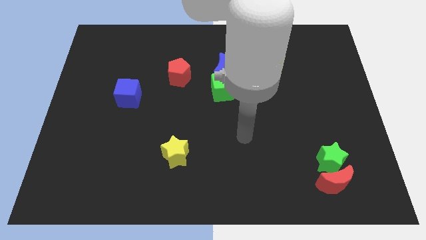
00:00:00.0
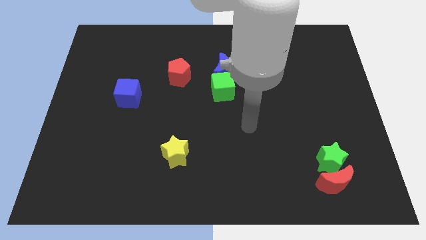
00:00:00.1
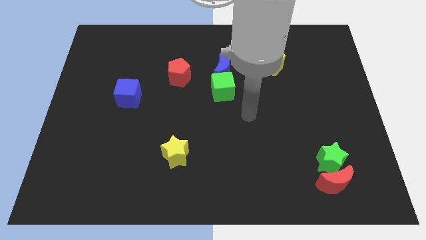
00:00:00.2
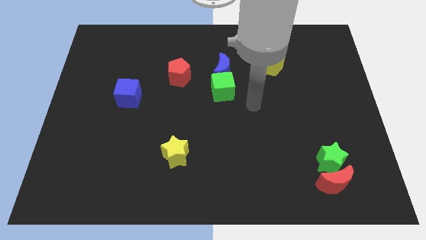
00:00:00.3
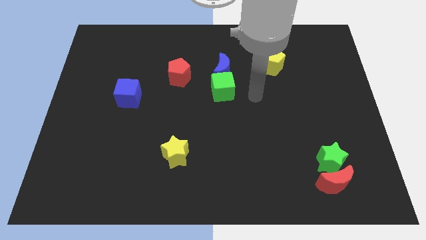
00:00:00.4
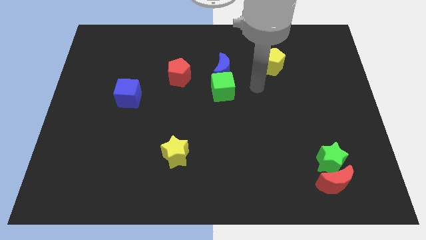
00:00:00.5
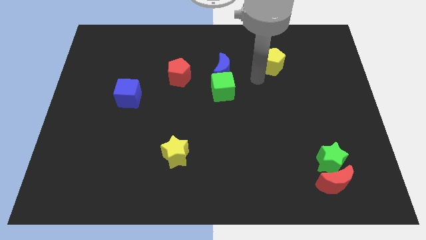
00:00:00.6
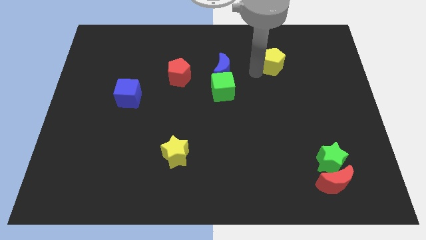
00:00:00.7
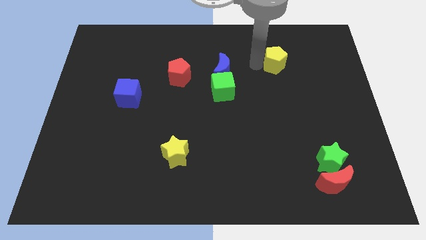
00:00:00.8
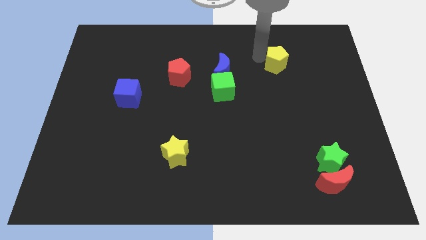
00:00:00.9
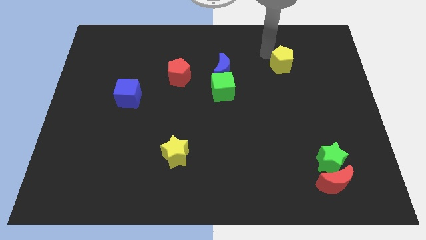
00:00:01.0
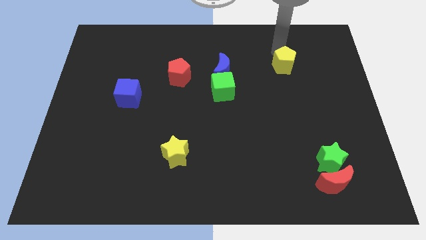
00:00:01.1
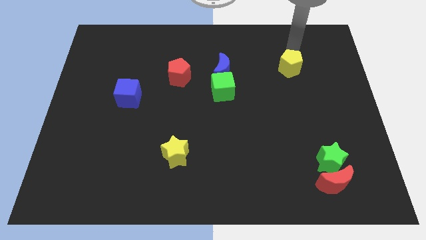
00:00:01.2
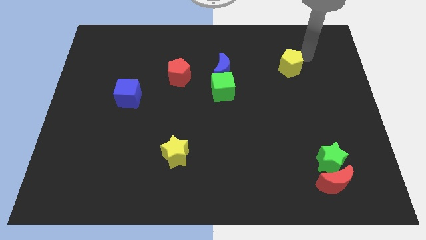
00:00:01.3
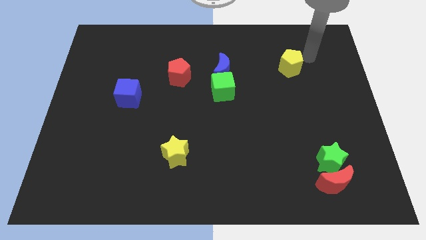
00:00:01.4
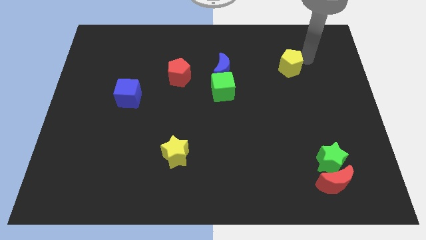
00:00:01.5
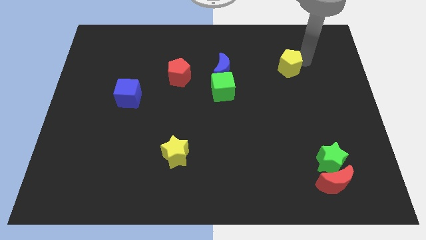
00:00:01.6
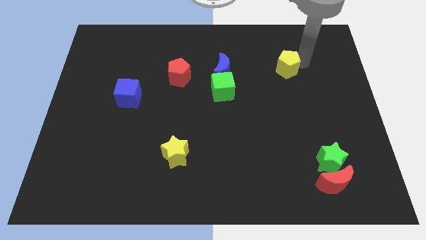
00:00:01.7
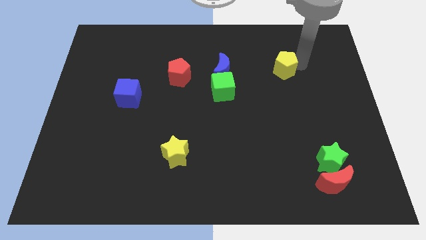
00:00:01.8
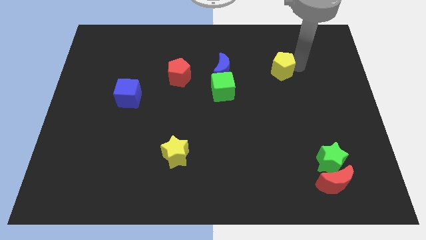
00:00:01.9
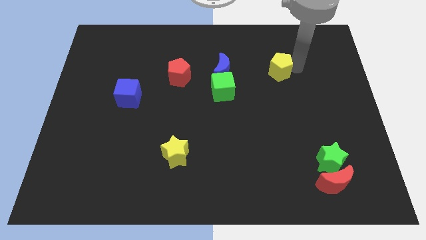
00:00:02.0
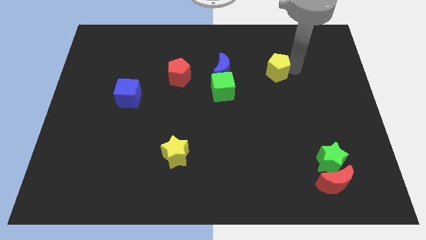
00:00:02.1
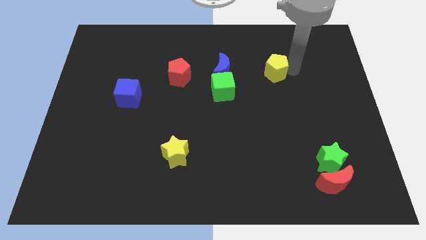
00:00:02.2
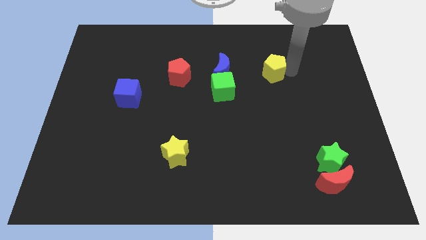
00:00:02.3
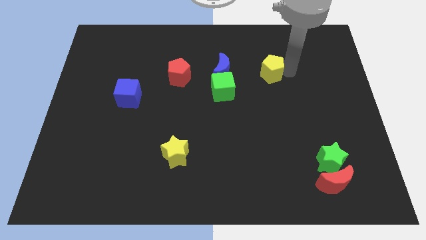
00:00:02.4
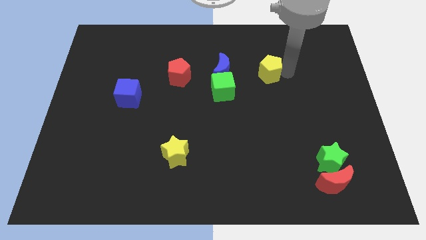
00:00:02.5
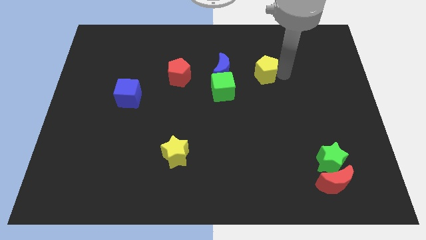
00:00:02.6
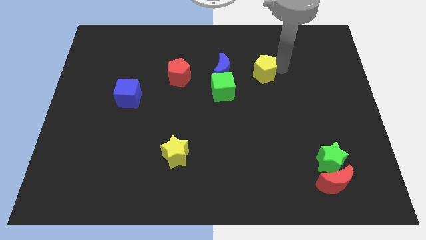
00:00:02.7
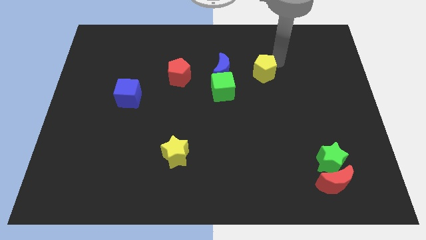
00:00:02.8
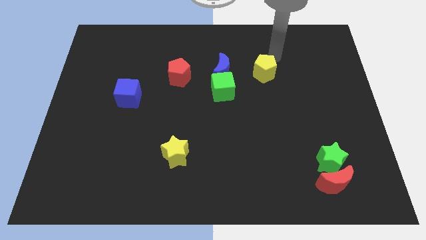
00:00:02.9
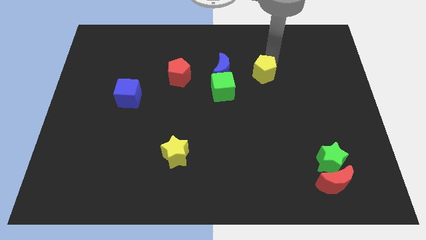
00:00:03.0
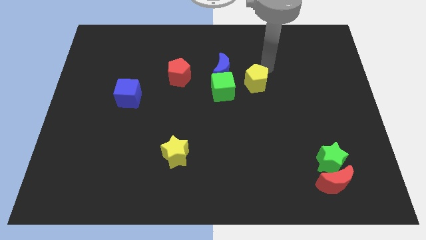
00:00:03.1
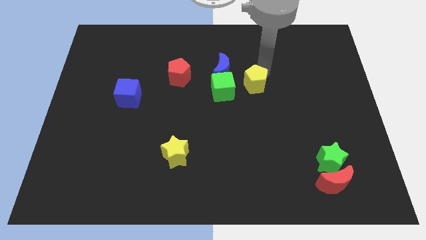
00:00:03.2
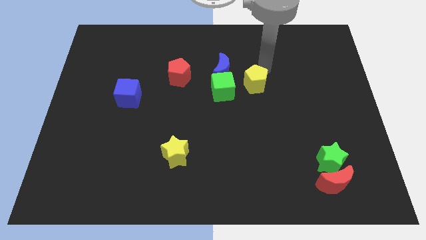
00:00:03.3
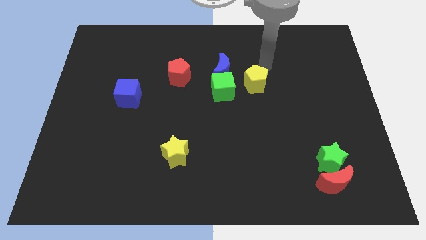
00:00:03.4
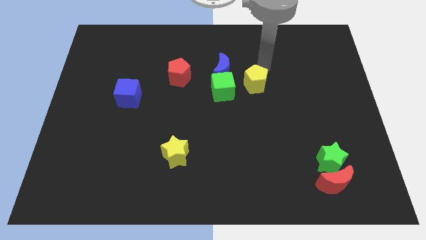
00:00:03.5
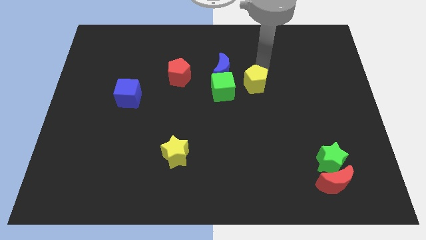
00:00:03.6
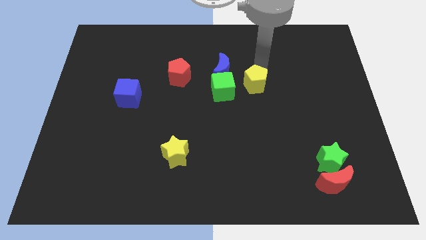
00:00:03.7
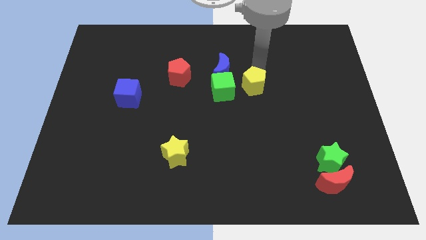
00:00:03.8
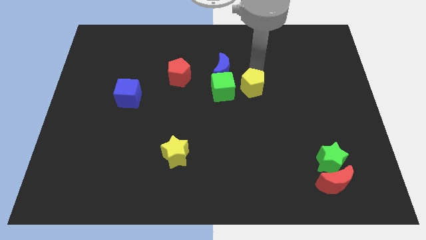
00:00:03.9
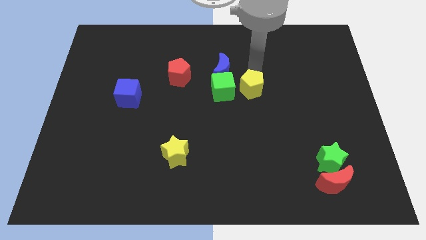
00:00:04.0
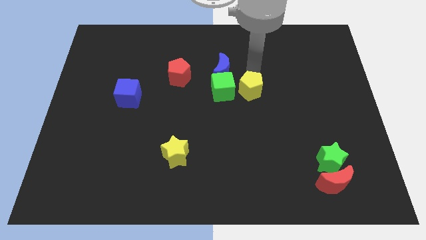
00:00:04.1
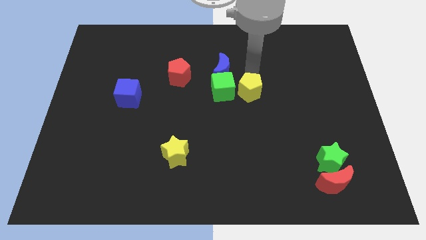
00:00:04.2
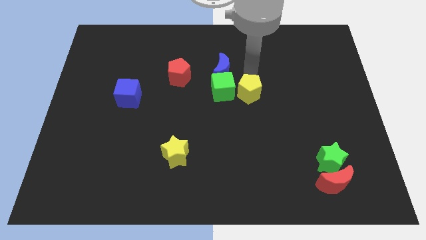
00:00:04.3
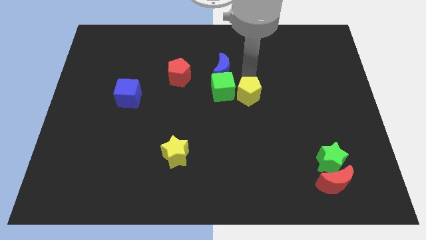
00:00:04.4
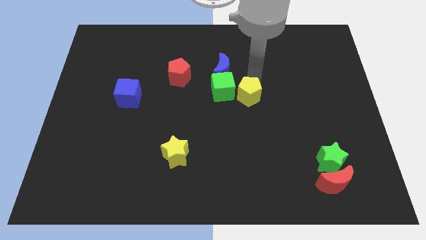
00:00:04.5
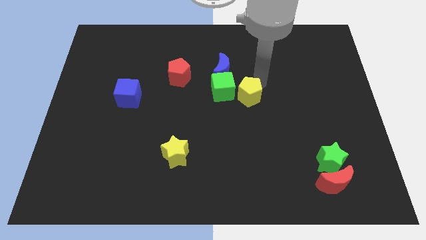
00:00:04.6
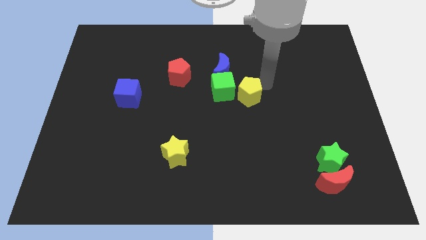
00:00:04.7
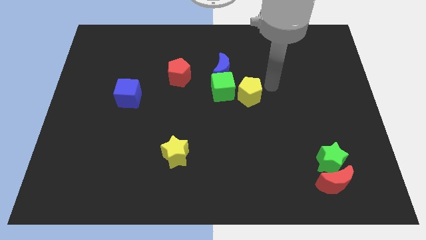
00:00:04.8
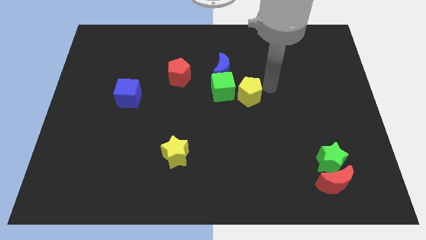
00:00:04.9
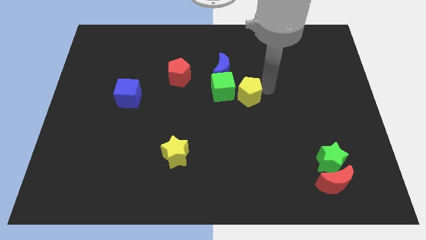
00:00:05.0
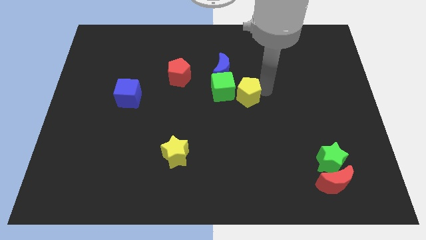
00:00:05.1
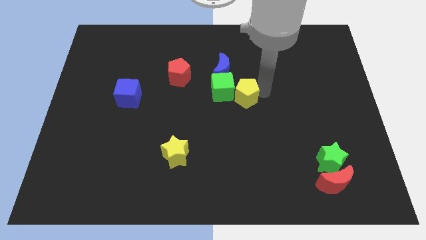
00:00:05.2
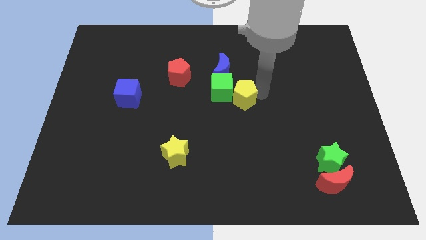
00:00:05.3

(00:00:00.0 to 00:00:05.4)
move the yellow pentagon below the blue moon

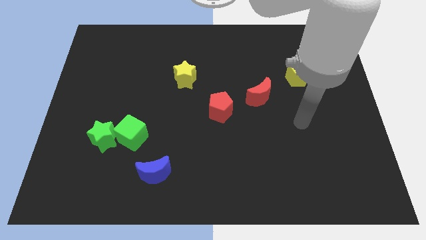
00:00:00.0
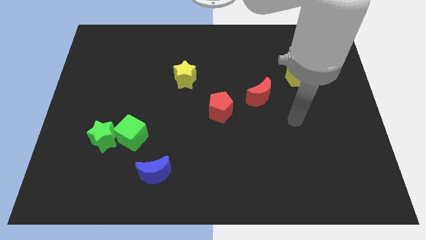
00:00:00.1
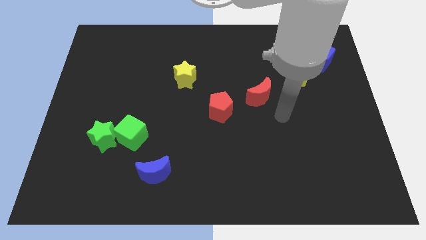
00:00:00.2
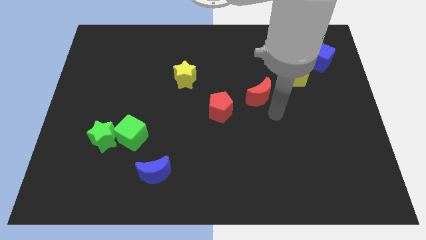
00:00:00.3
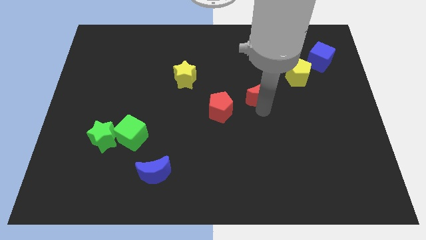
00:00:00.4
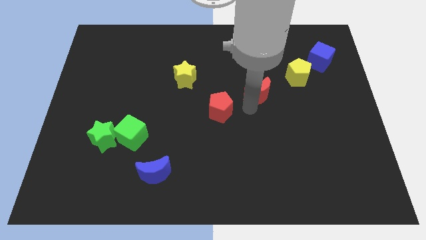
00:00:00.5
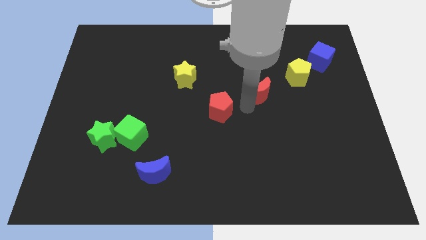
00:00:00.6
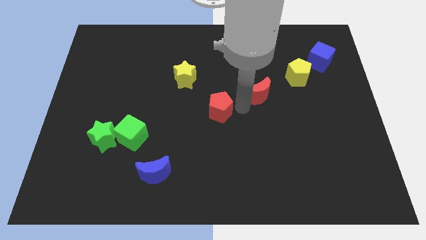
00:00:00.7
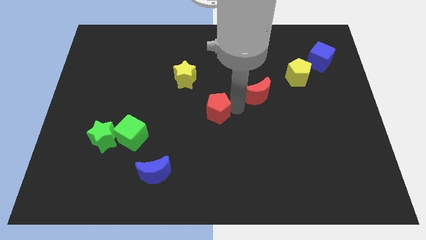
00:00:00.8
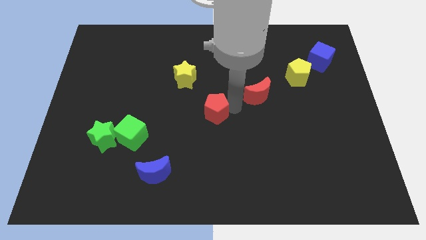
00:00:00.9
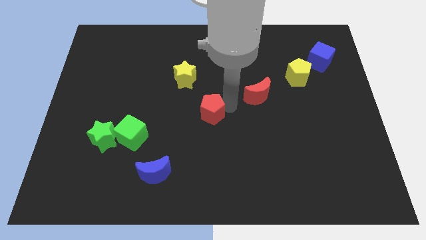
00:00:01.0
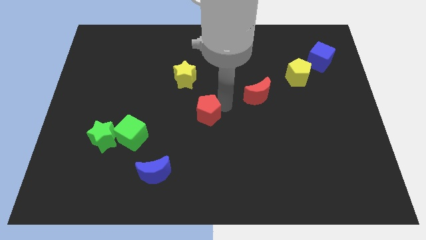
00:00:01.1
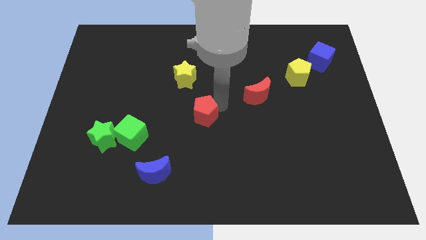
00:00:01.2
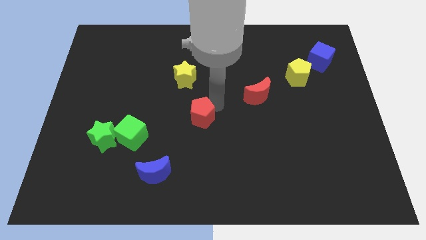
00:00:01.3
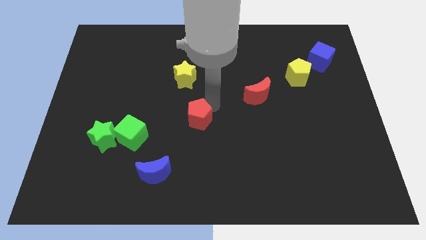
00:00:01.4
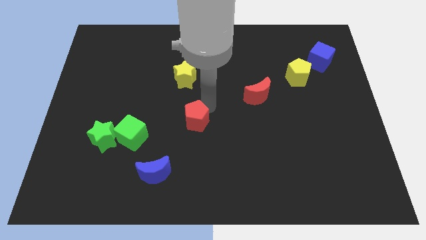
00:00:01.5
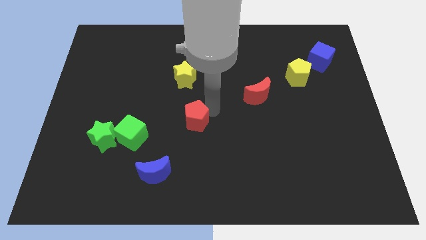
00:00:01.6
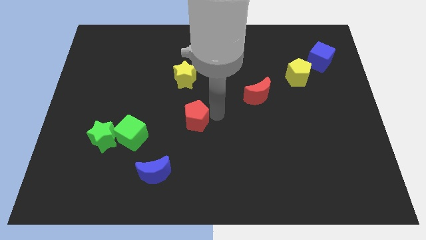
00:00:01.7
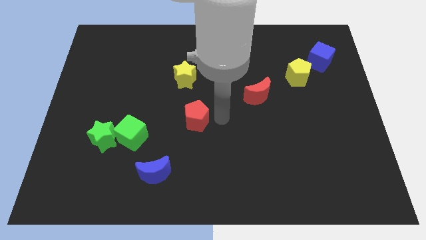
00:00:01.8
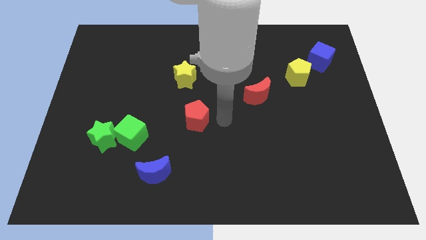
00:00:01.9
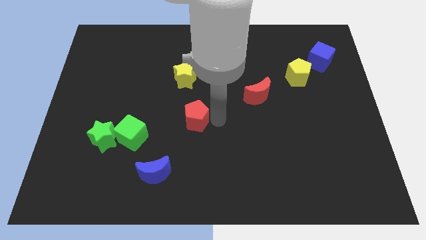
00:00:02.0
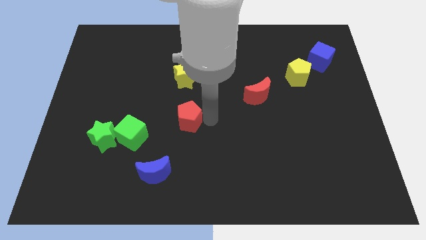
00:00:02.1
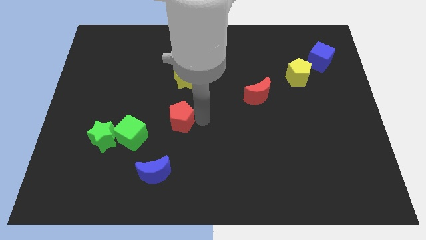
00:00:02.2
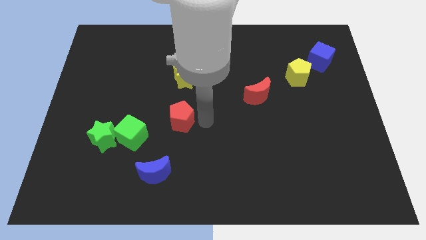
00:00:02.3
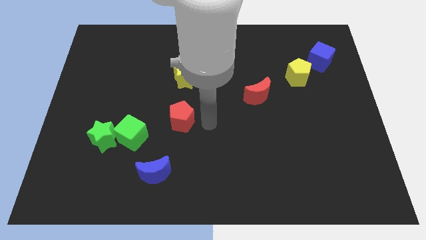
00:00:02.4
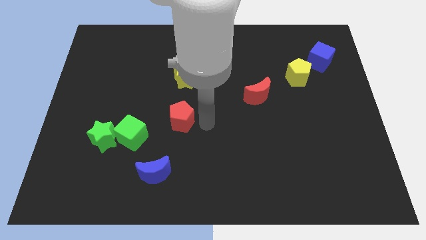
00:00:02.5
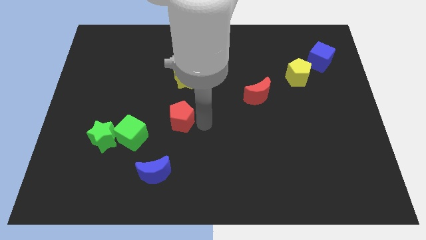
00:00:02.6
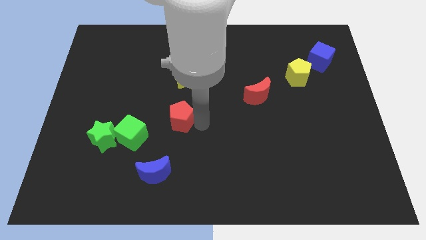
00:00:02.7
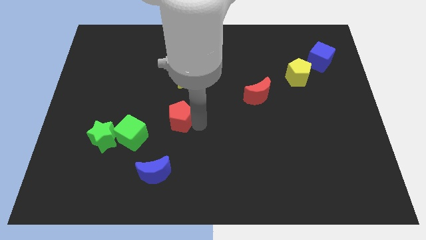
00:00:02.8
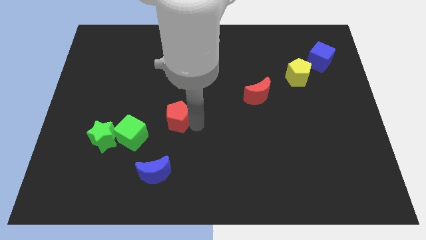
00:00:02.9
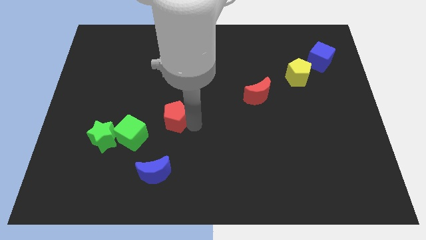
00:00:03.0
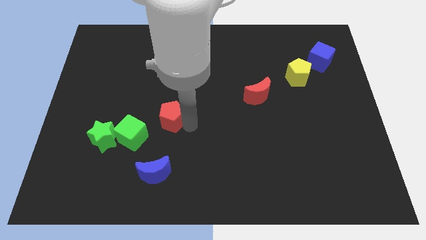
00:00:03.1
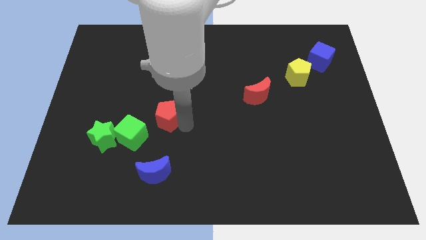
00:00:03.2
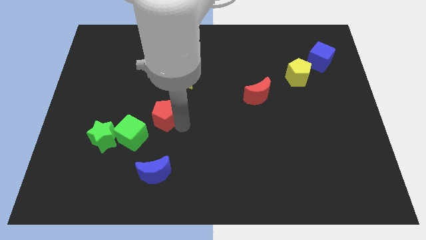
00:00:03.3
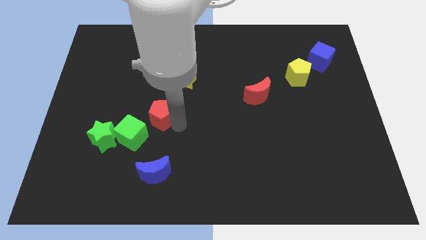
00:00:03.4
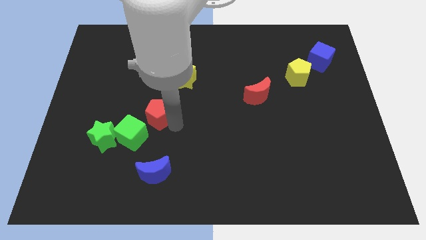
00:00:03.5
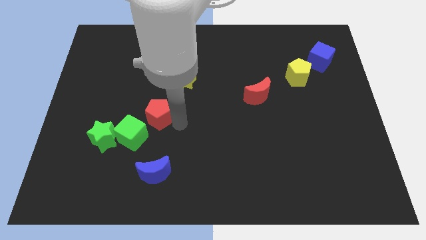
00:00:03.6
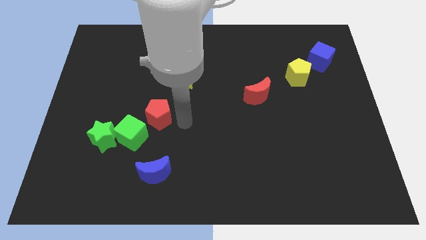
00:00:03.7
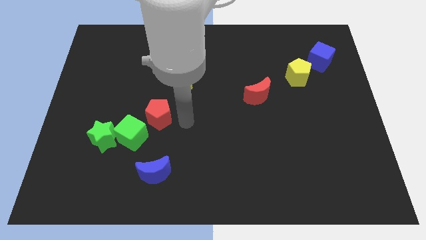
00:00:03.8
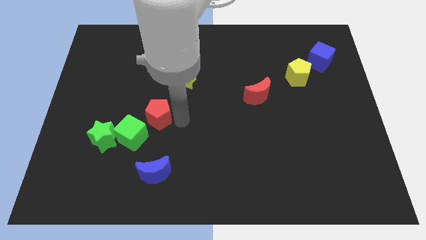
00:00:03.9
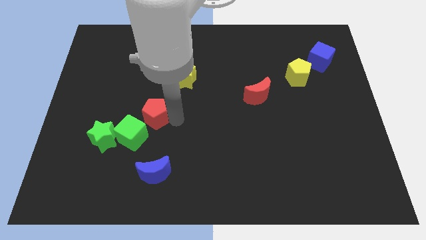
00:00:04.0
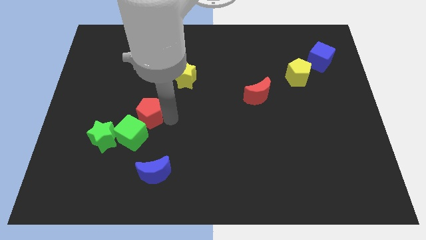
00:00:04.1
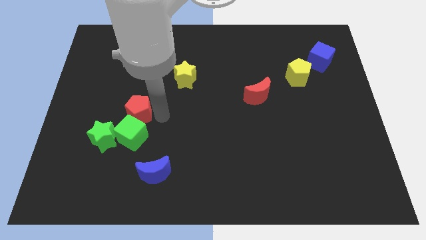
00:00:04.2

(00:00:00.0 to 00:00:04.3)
put the red pentagon to the top left side of the green cube
